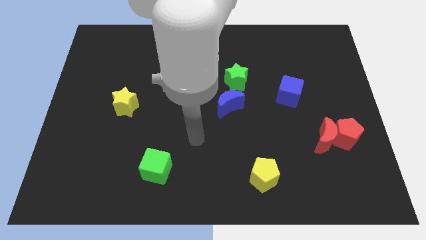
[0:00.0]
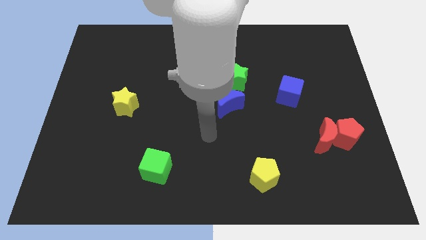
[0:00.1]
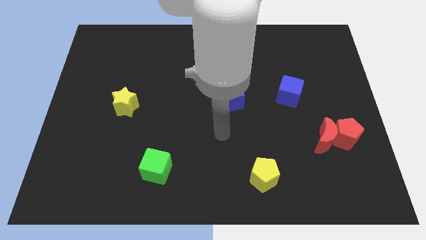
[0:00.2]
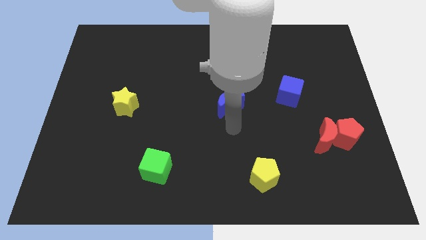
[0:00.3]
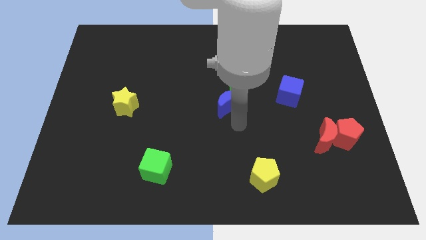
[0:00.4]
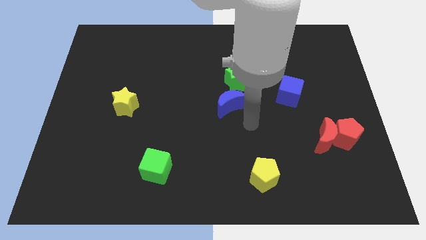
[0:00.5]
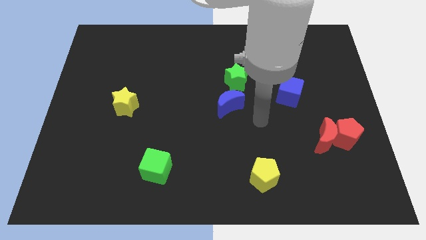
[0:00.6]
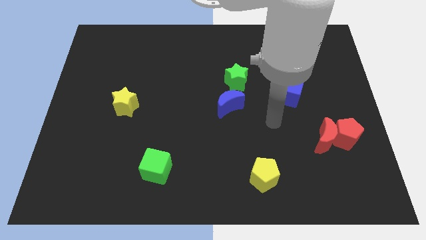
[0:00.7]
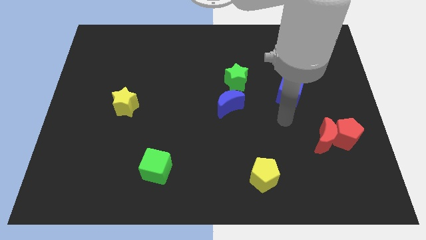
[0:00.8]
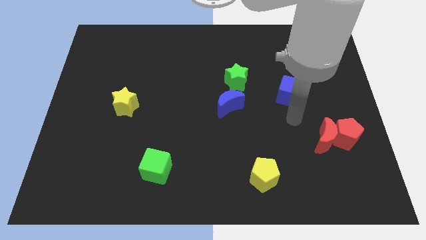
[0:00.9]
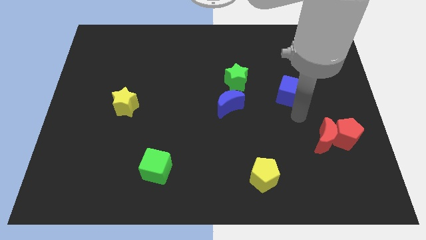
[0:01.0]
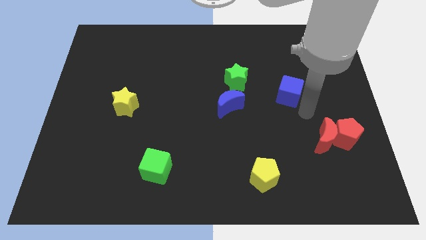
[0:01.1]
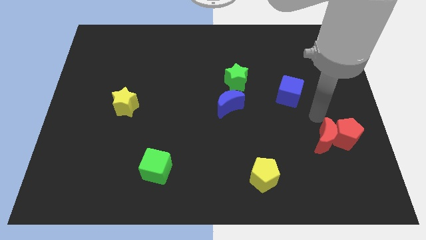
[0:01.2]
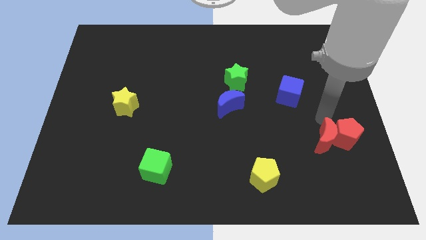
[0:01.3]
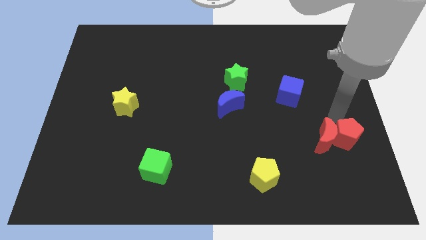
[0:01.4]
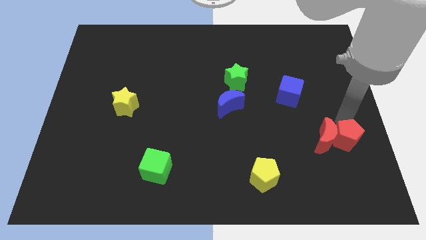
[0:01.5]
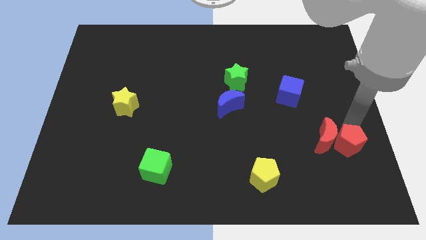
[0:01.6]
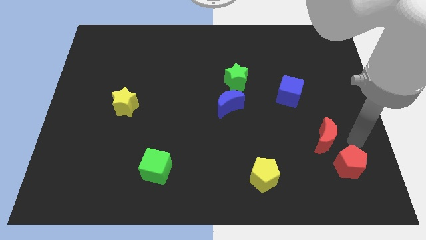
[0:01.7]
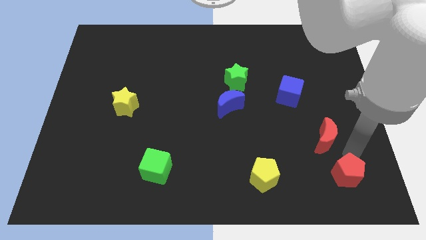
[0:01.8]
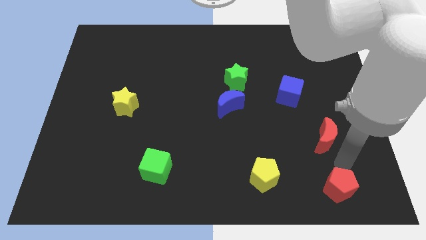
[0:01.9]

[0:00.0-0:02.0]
move the red moon away from the red pentagon

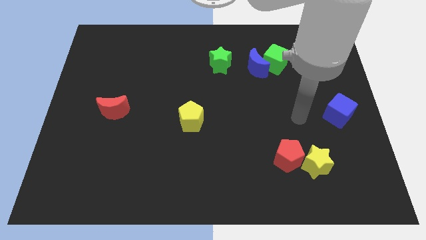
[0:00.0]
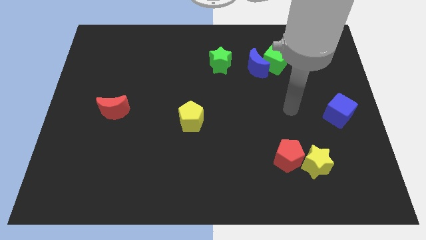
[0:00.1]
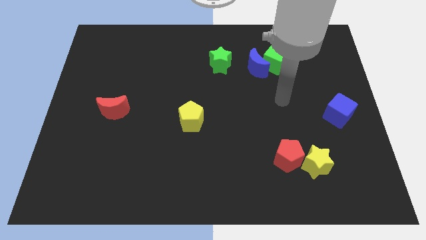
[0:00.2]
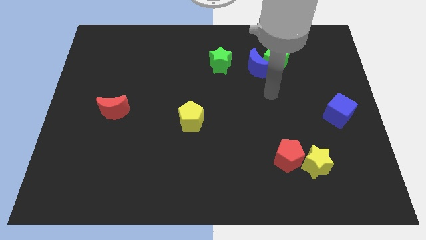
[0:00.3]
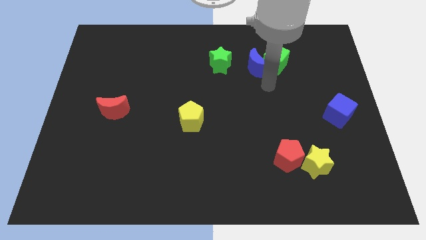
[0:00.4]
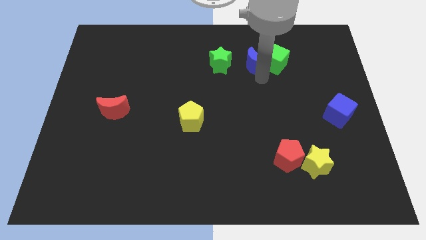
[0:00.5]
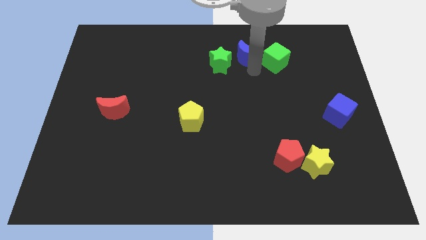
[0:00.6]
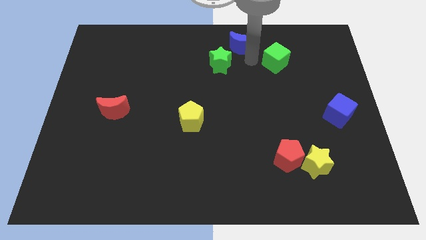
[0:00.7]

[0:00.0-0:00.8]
pull the green cube apart from the blue moon

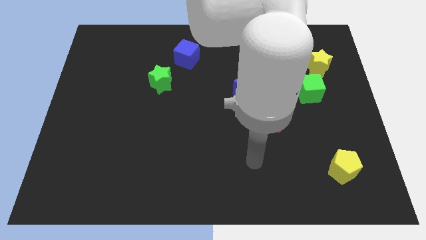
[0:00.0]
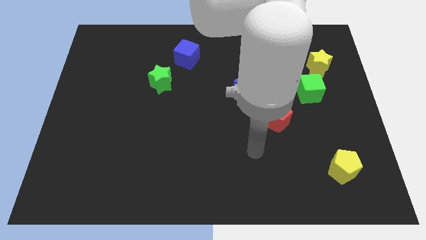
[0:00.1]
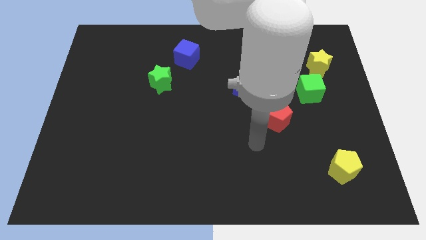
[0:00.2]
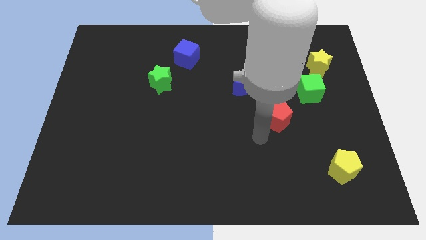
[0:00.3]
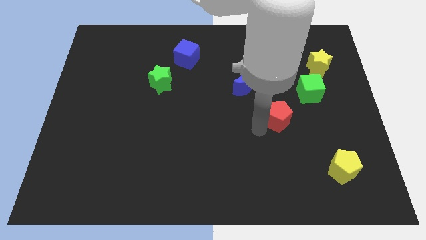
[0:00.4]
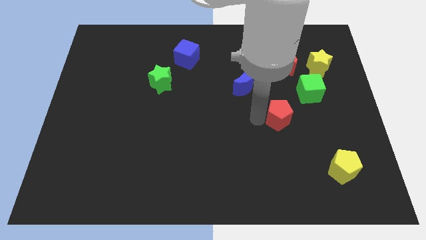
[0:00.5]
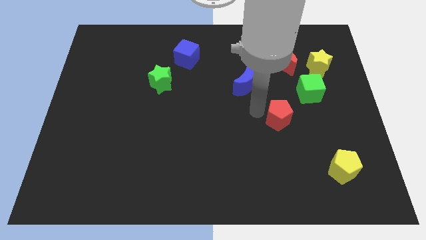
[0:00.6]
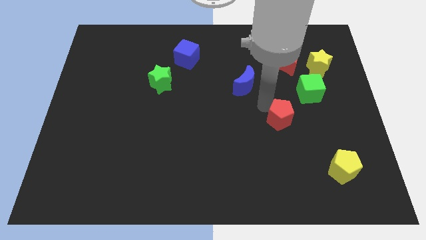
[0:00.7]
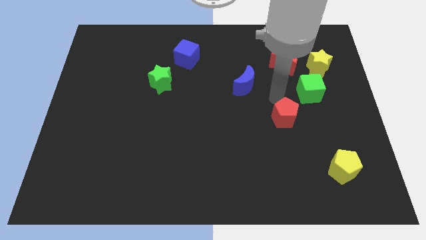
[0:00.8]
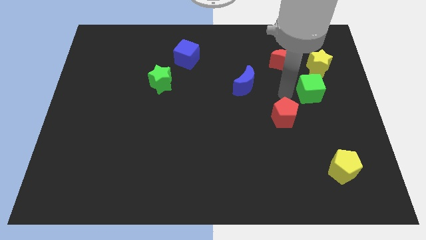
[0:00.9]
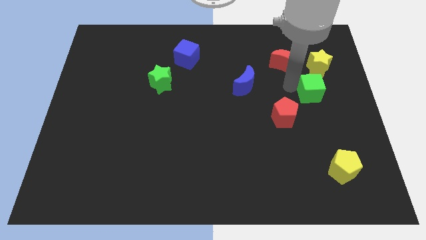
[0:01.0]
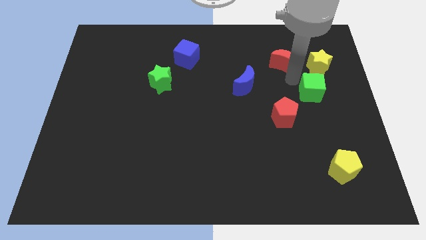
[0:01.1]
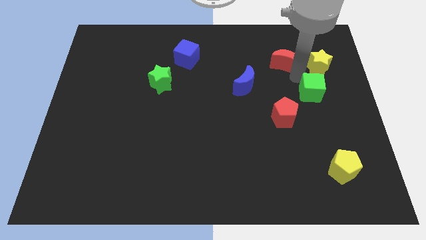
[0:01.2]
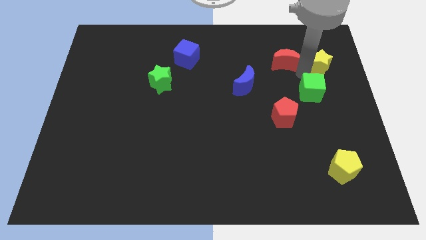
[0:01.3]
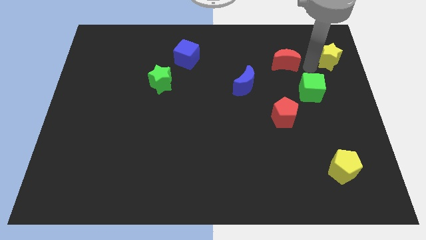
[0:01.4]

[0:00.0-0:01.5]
separate the red moon from the yellow star

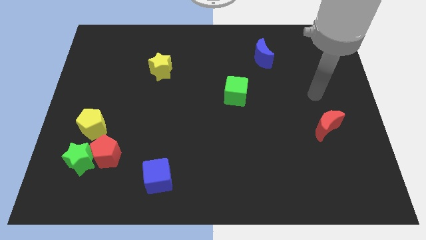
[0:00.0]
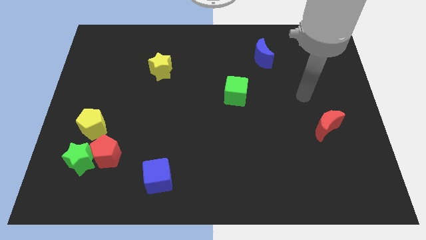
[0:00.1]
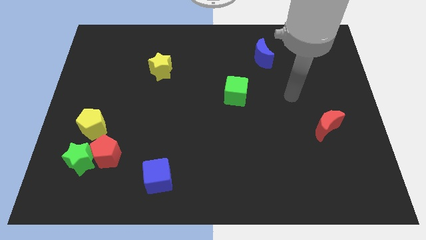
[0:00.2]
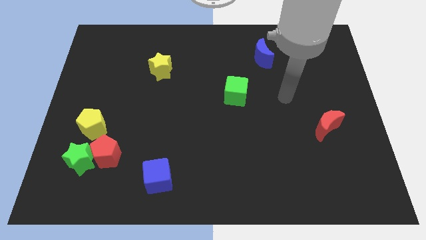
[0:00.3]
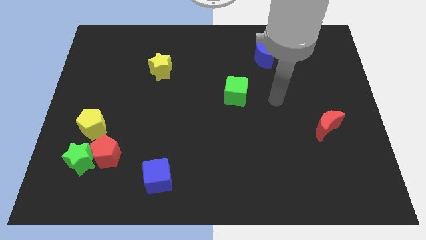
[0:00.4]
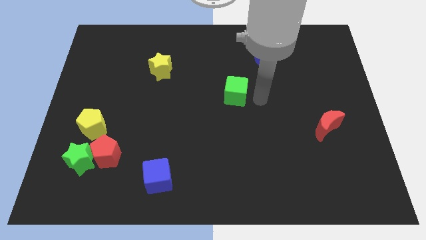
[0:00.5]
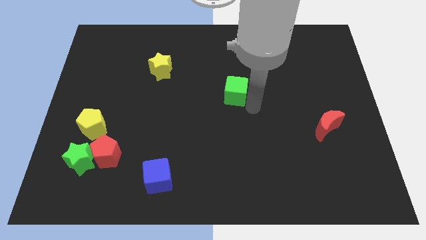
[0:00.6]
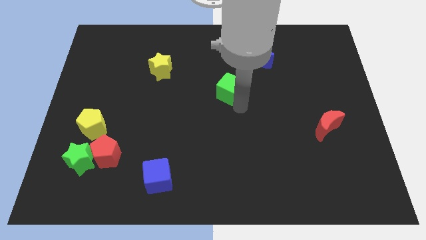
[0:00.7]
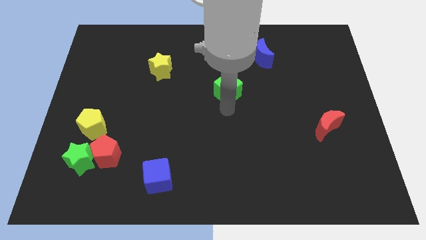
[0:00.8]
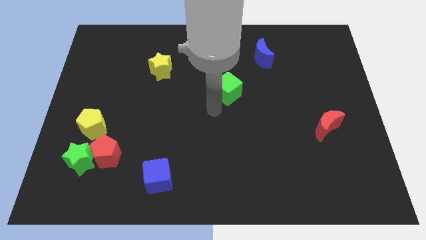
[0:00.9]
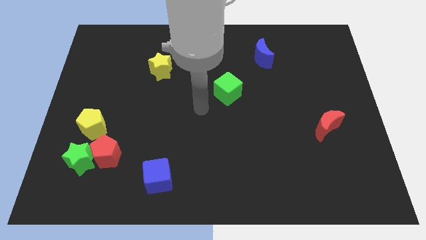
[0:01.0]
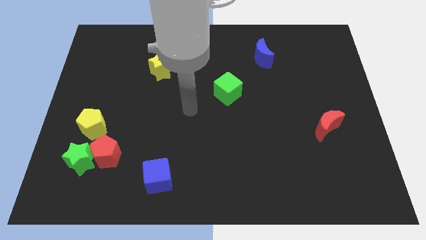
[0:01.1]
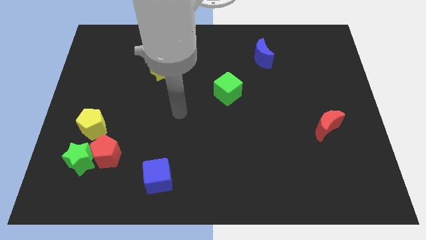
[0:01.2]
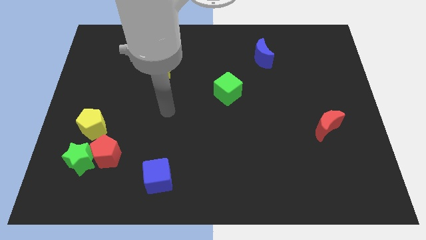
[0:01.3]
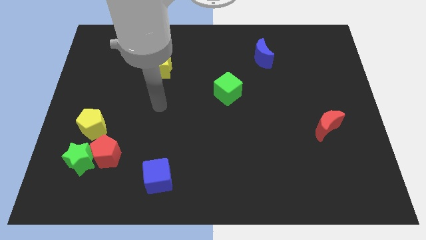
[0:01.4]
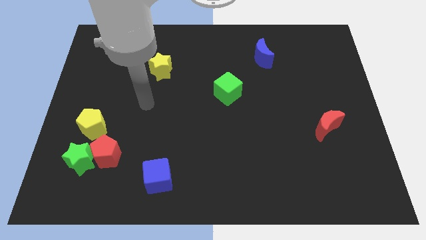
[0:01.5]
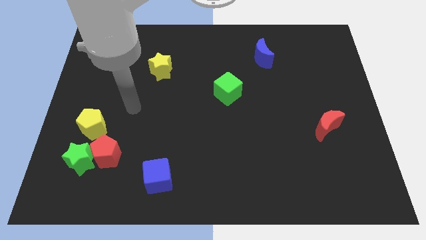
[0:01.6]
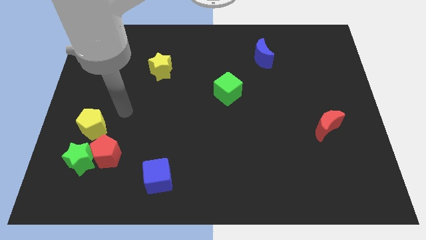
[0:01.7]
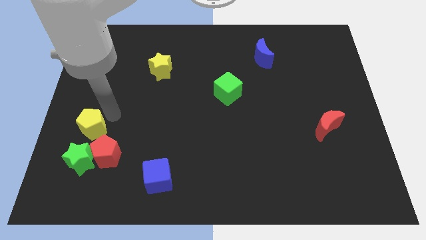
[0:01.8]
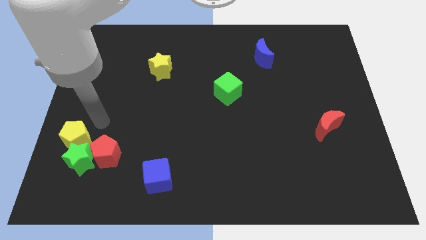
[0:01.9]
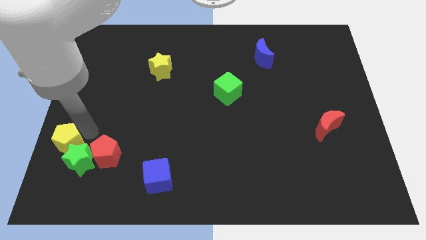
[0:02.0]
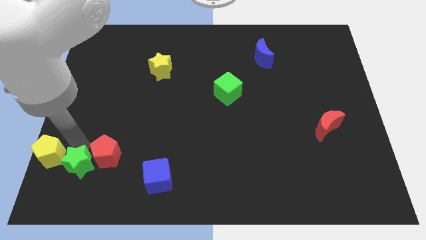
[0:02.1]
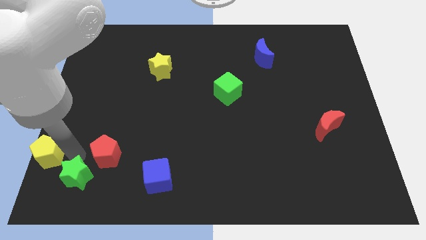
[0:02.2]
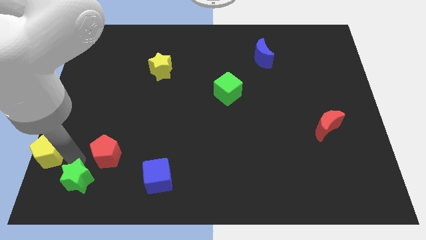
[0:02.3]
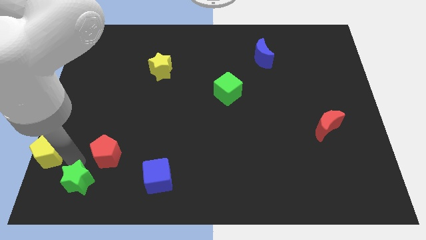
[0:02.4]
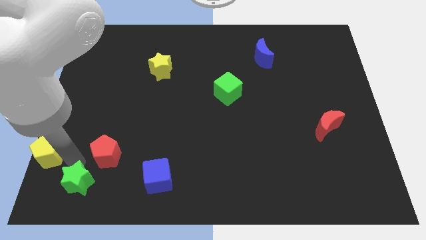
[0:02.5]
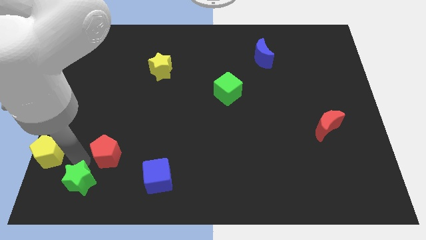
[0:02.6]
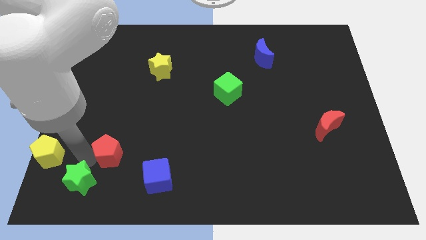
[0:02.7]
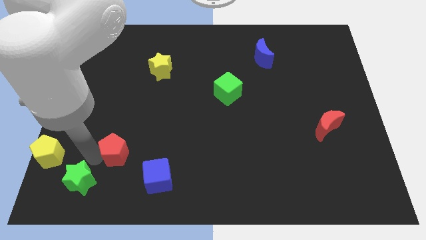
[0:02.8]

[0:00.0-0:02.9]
separate the red pentagon from the green star and yellow pentagon

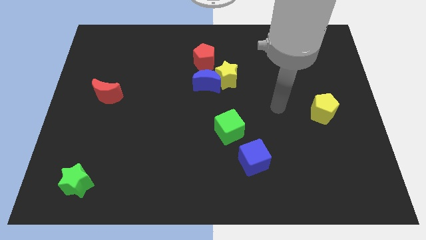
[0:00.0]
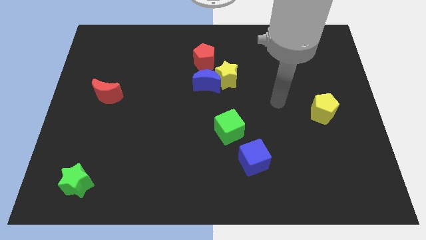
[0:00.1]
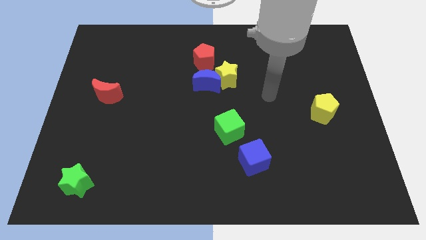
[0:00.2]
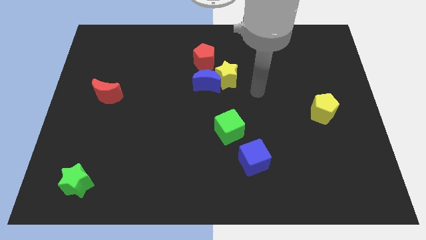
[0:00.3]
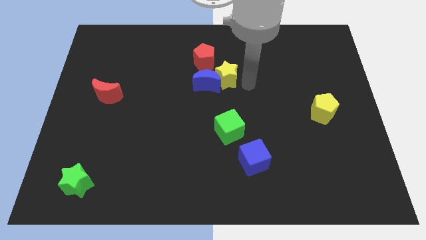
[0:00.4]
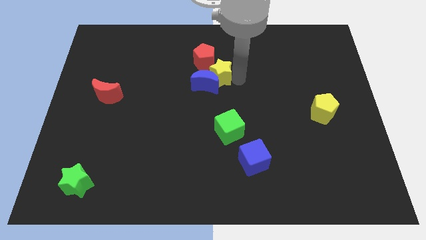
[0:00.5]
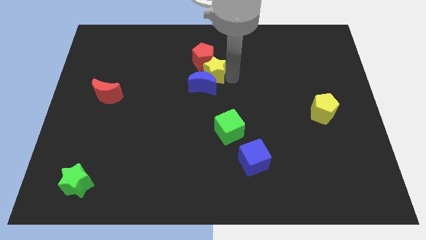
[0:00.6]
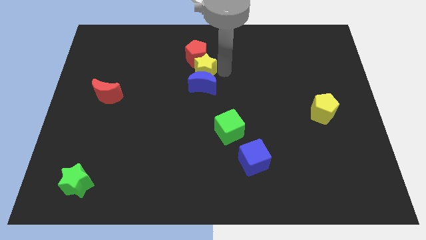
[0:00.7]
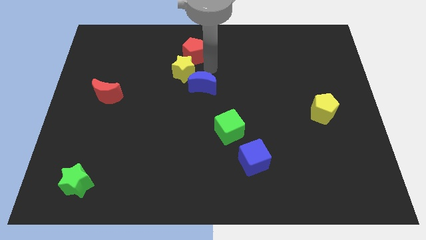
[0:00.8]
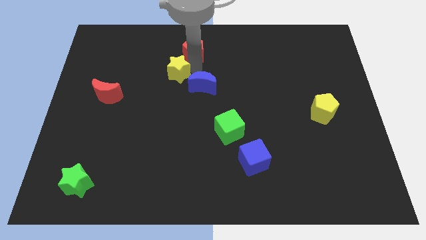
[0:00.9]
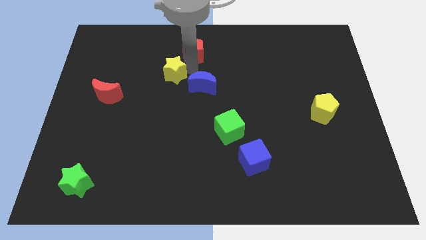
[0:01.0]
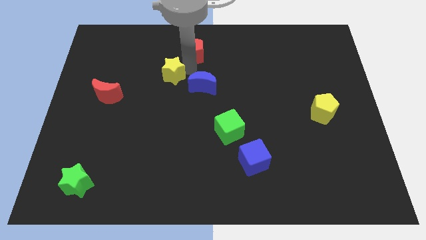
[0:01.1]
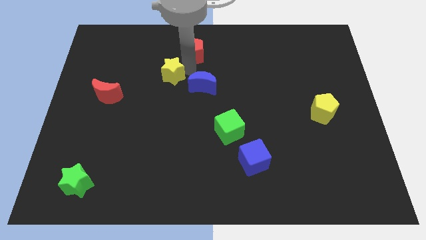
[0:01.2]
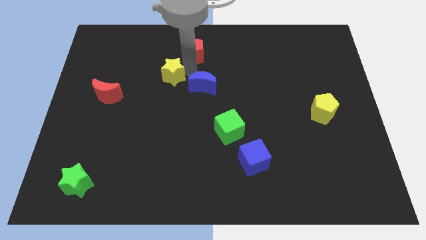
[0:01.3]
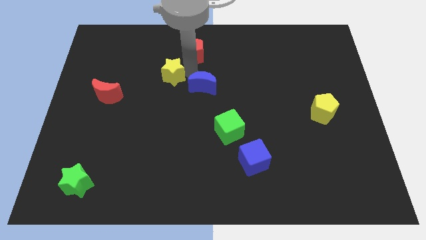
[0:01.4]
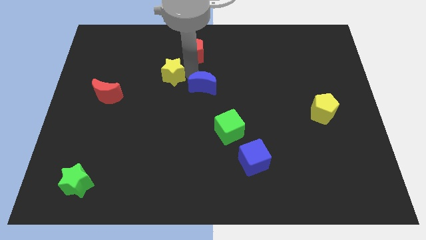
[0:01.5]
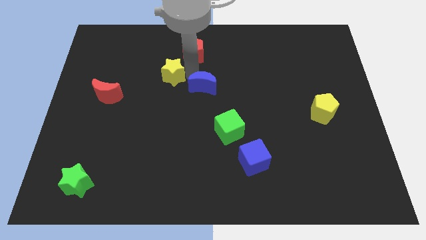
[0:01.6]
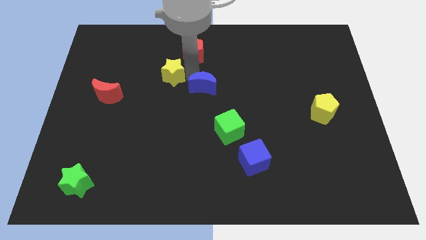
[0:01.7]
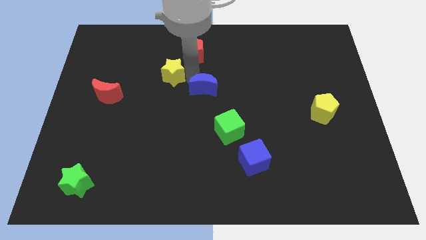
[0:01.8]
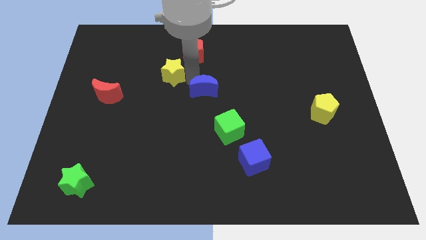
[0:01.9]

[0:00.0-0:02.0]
separate the blue moon from the yellow star and red pentagon

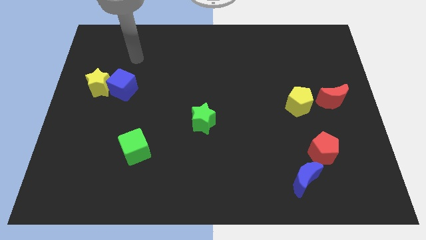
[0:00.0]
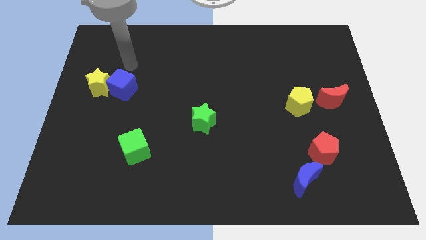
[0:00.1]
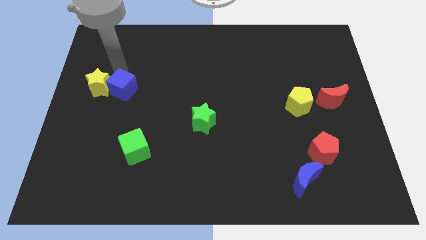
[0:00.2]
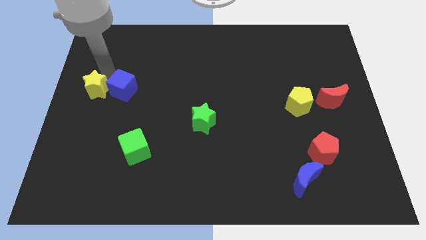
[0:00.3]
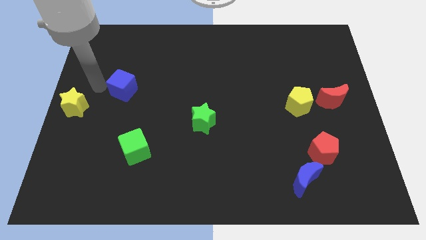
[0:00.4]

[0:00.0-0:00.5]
pull the blue cube apart from the yellow star
